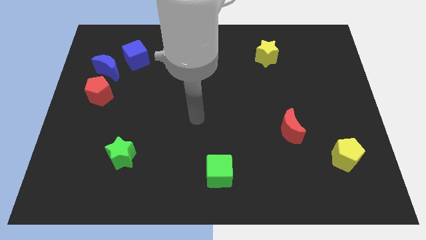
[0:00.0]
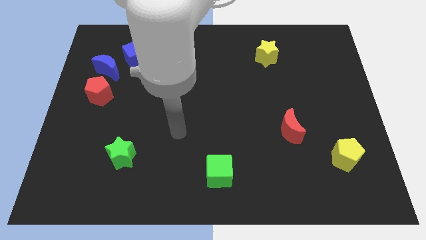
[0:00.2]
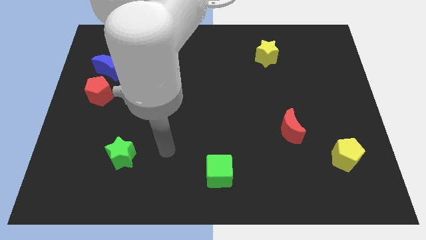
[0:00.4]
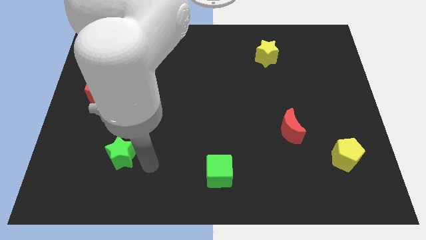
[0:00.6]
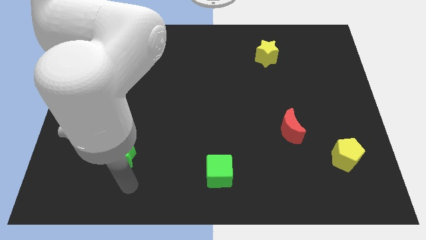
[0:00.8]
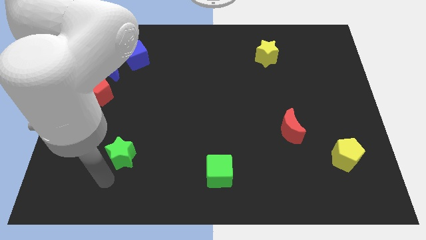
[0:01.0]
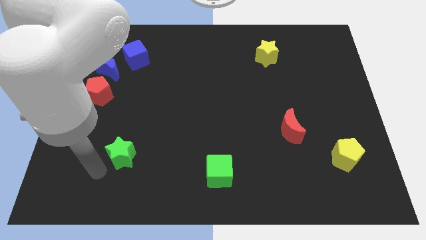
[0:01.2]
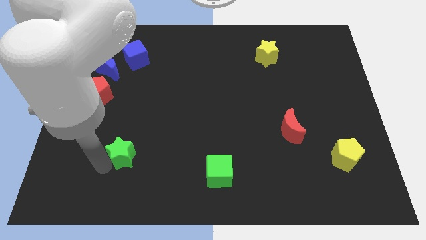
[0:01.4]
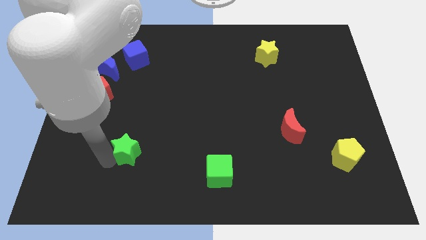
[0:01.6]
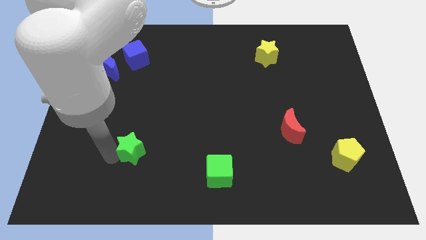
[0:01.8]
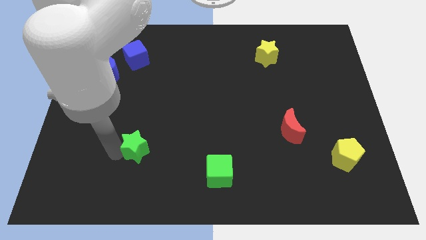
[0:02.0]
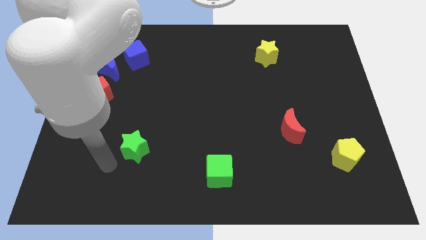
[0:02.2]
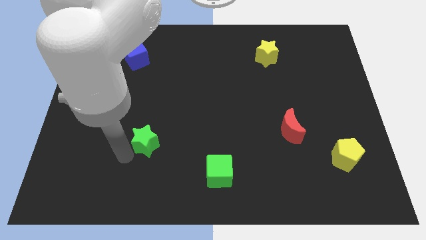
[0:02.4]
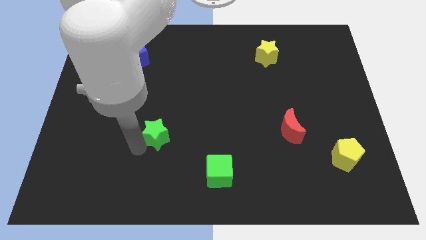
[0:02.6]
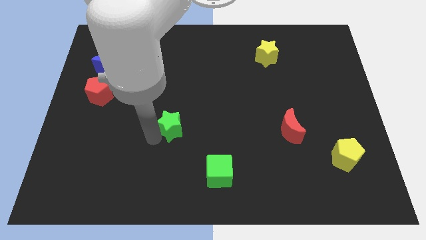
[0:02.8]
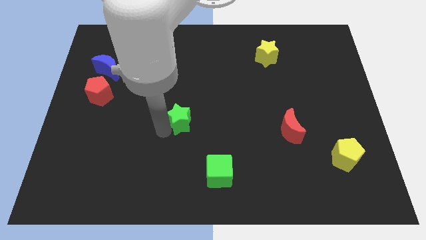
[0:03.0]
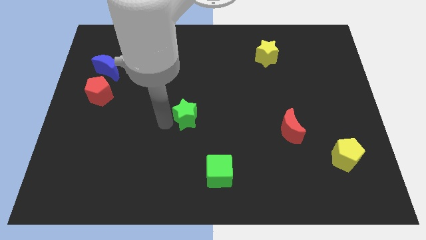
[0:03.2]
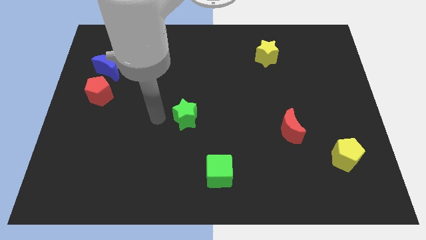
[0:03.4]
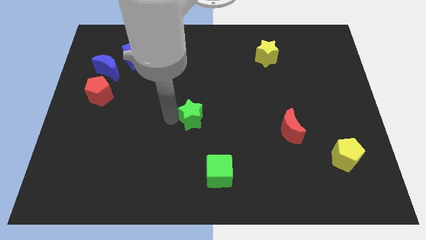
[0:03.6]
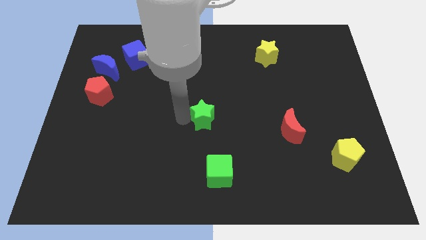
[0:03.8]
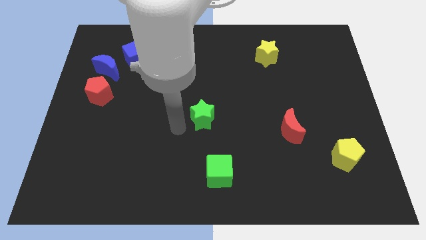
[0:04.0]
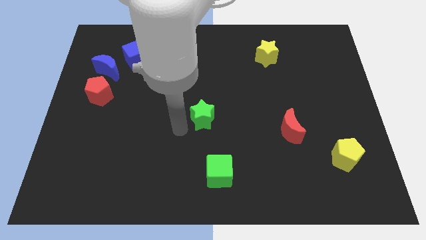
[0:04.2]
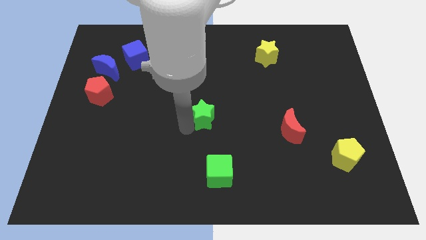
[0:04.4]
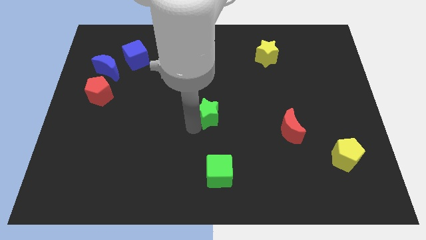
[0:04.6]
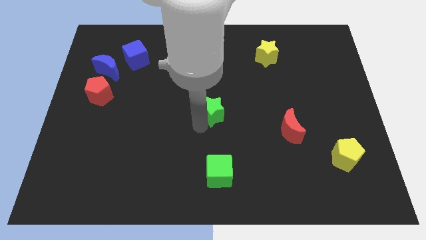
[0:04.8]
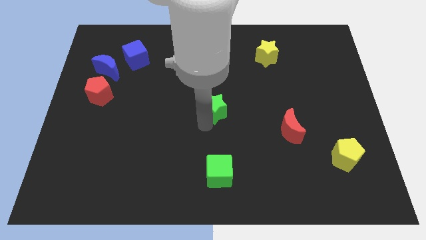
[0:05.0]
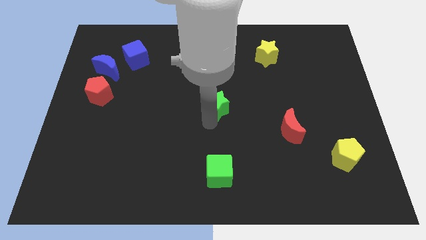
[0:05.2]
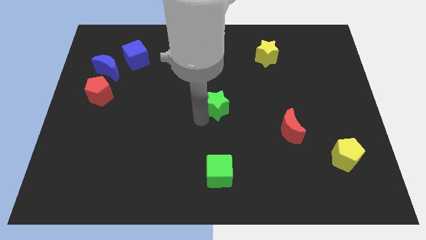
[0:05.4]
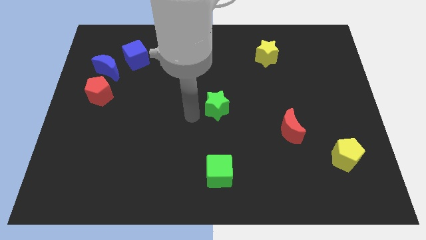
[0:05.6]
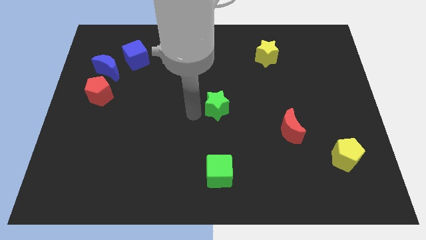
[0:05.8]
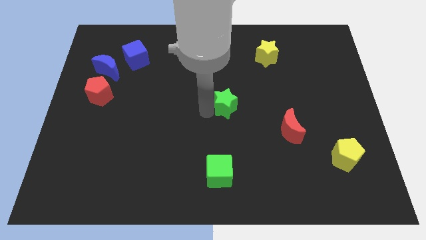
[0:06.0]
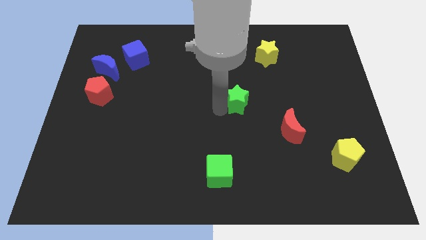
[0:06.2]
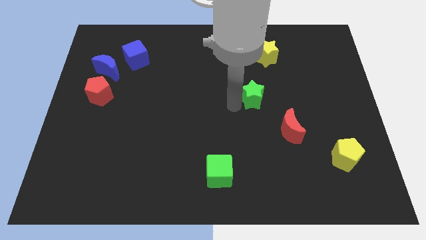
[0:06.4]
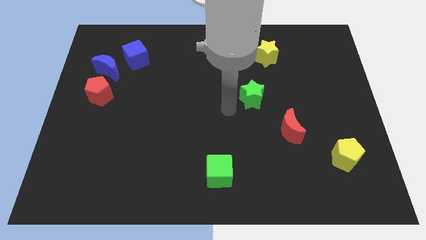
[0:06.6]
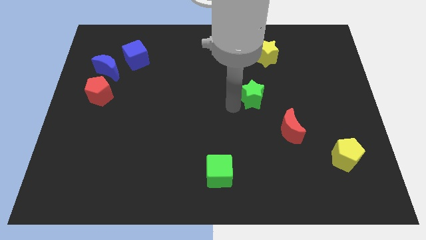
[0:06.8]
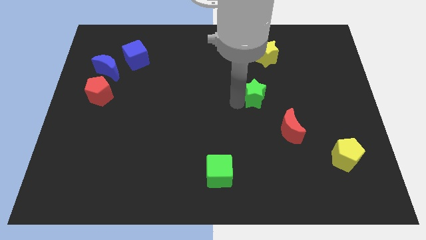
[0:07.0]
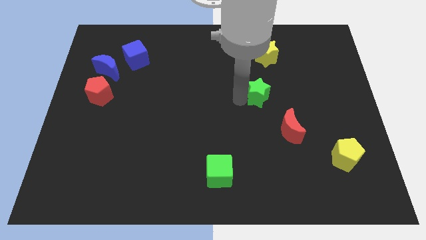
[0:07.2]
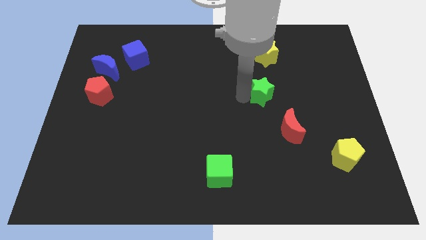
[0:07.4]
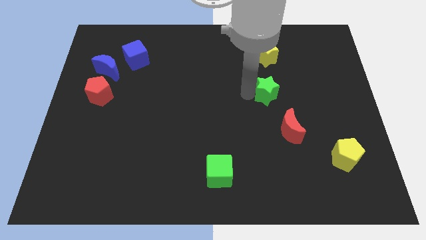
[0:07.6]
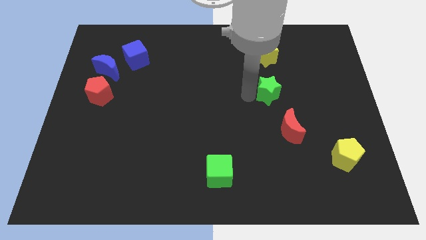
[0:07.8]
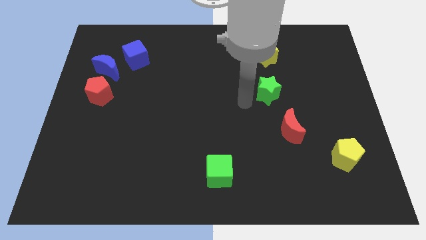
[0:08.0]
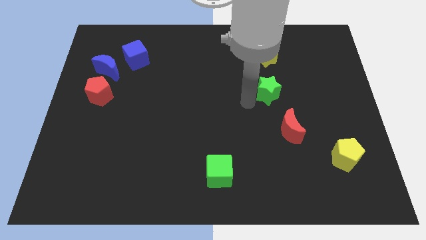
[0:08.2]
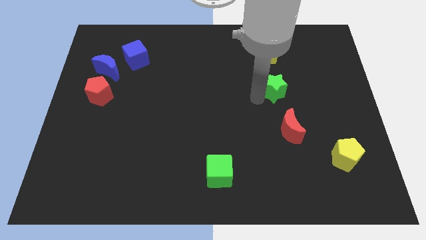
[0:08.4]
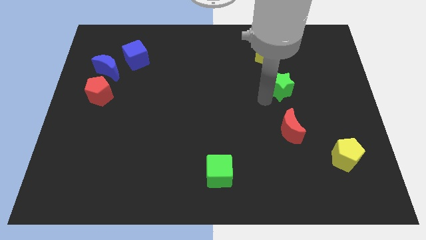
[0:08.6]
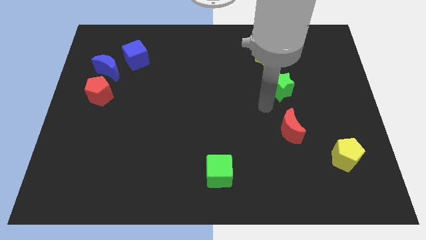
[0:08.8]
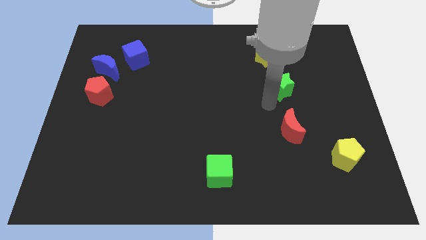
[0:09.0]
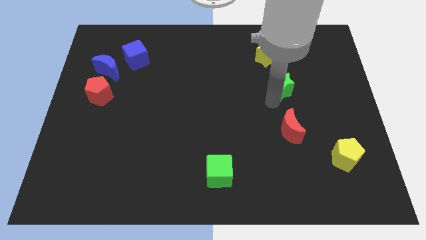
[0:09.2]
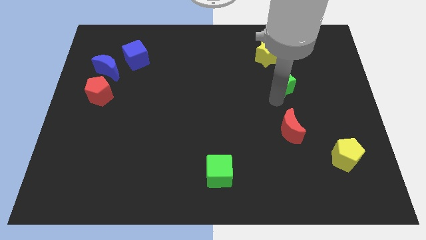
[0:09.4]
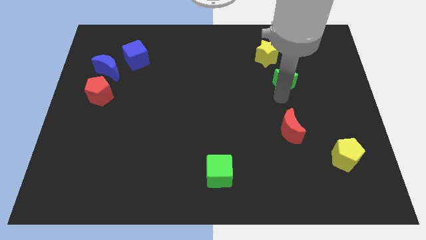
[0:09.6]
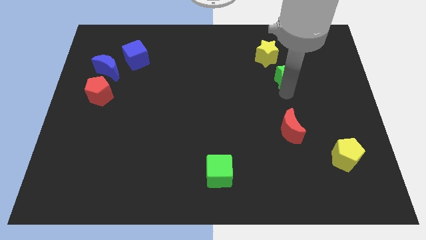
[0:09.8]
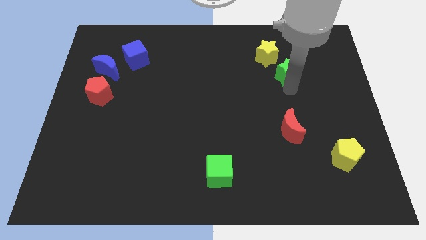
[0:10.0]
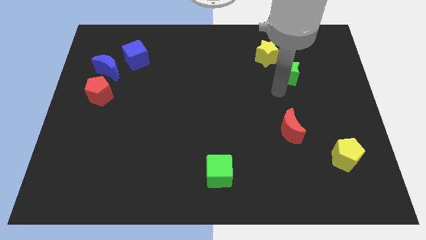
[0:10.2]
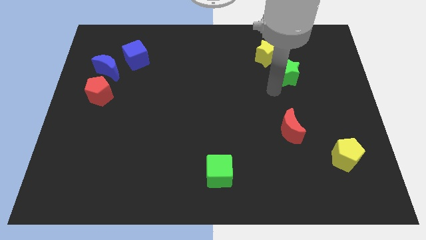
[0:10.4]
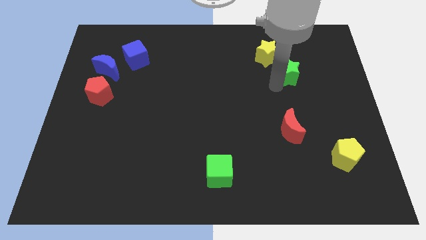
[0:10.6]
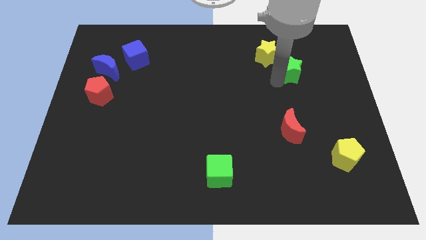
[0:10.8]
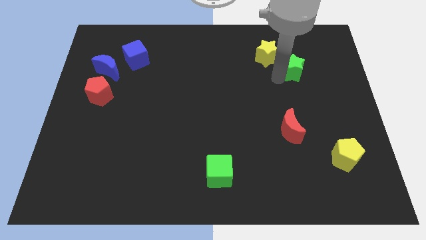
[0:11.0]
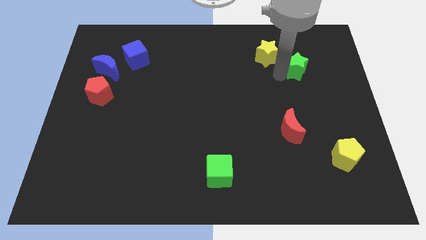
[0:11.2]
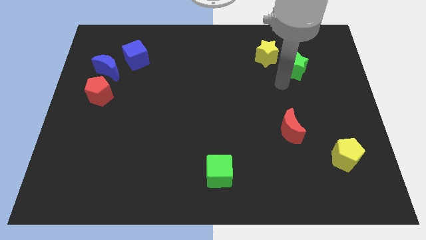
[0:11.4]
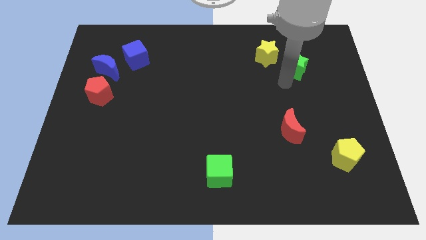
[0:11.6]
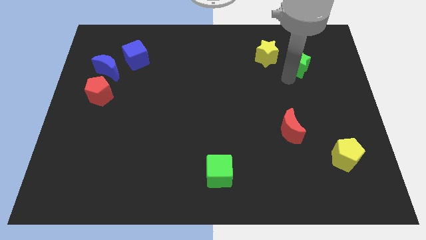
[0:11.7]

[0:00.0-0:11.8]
move the green star right of the yellow star

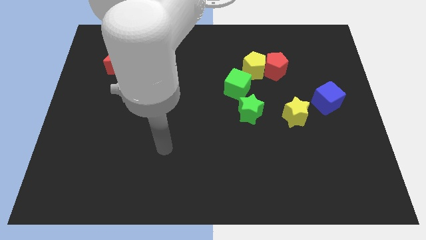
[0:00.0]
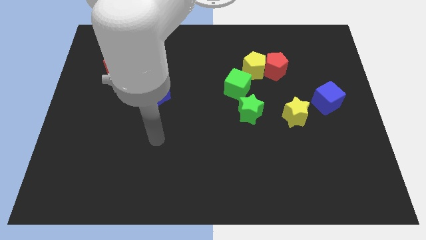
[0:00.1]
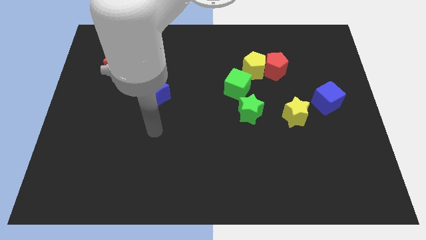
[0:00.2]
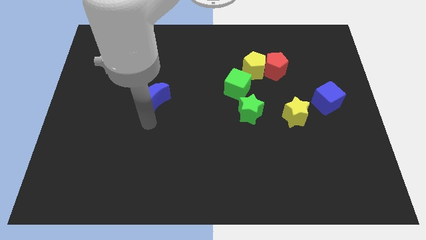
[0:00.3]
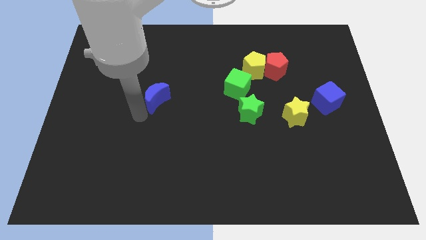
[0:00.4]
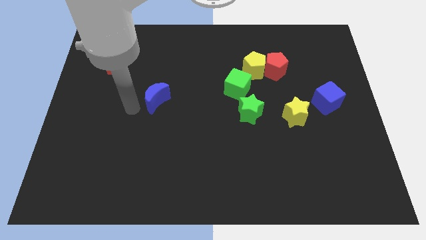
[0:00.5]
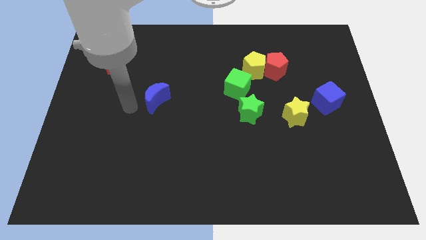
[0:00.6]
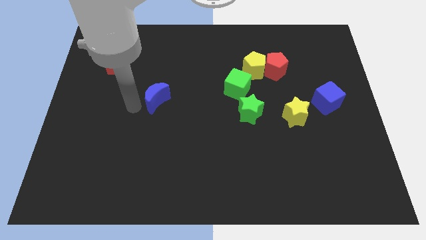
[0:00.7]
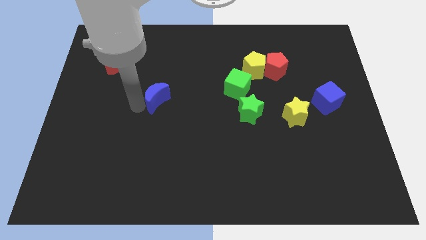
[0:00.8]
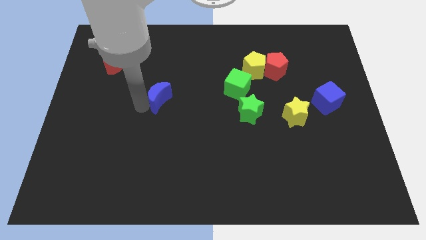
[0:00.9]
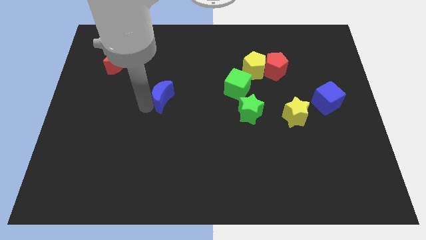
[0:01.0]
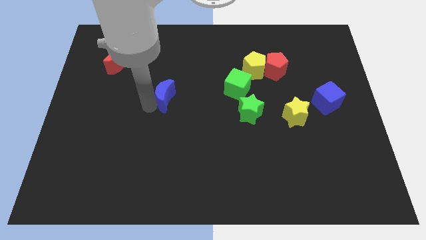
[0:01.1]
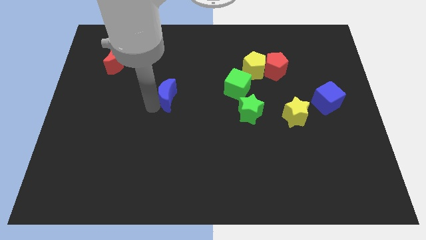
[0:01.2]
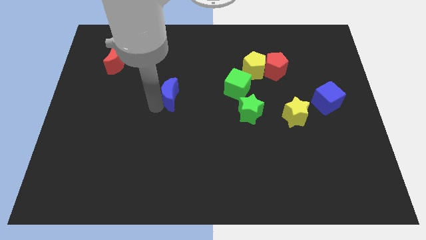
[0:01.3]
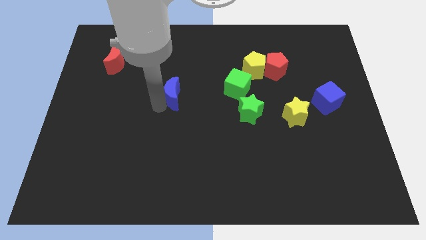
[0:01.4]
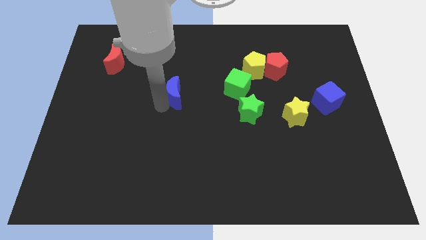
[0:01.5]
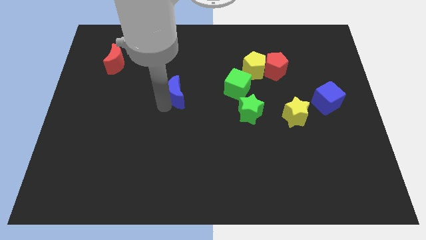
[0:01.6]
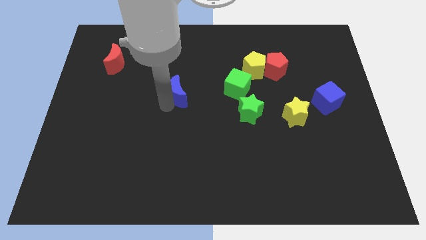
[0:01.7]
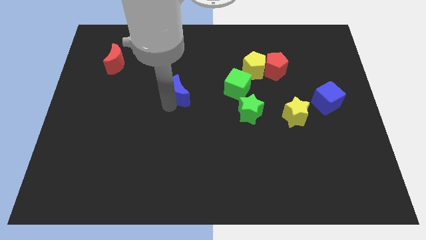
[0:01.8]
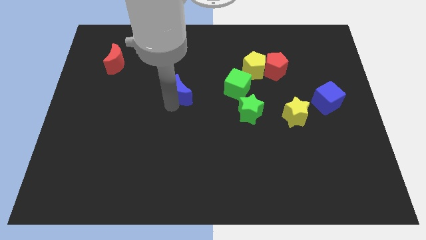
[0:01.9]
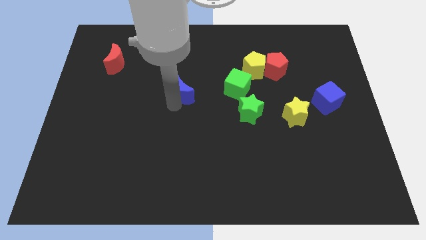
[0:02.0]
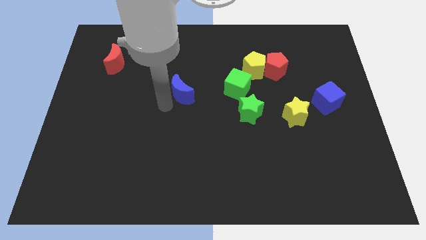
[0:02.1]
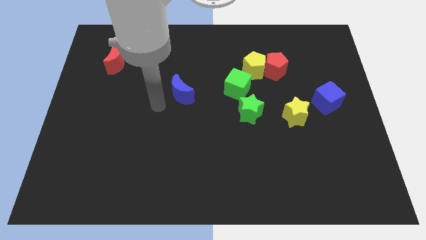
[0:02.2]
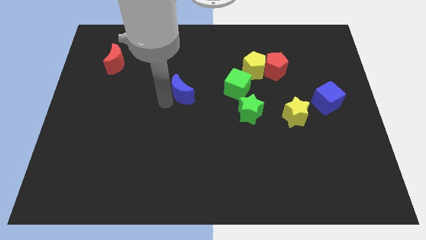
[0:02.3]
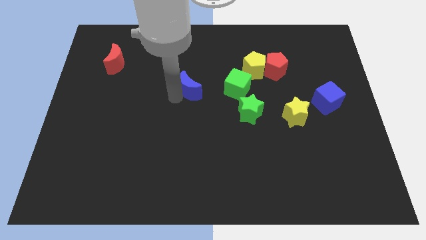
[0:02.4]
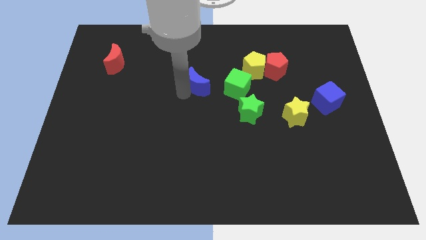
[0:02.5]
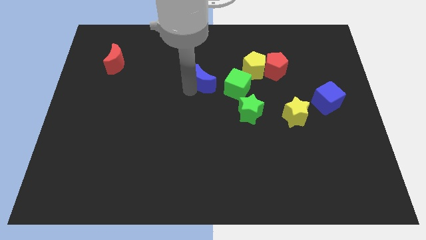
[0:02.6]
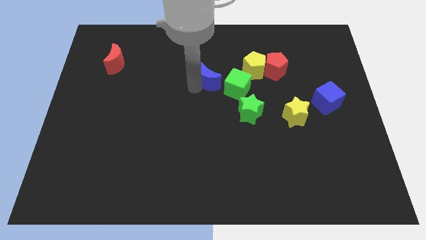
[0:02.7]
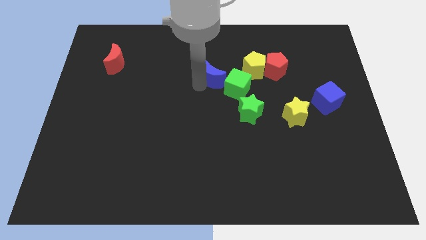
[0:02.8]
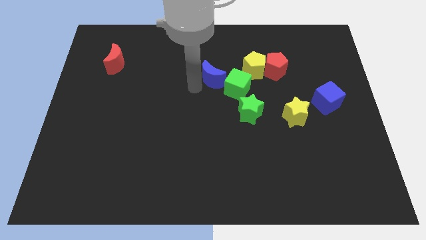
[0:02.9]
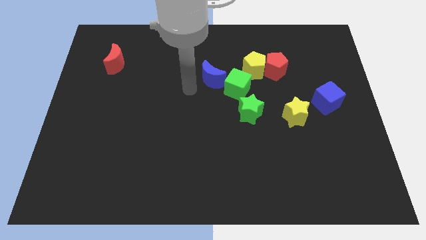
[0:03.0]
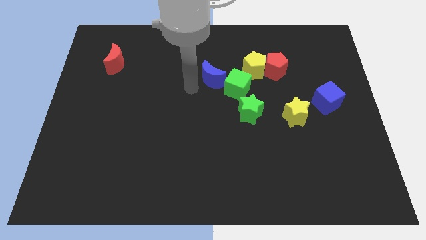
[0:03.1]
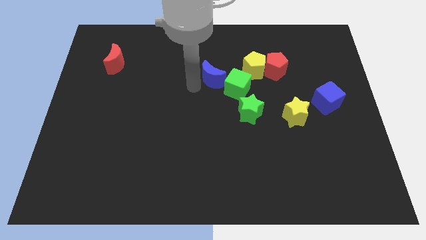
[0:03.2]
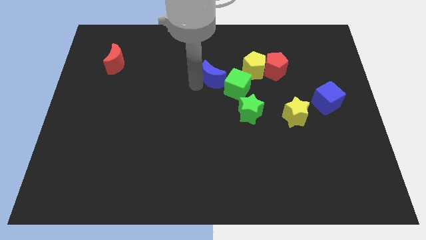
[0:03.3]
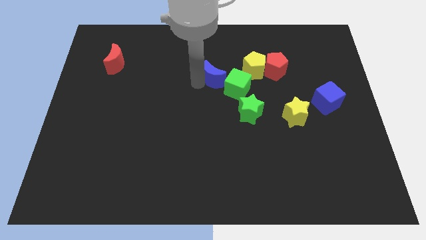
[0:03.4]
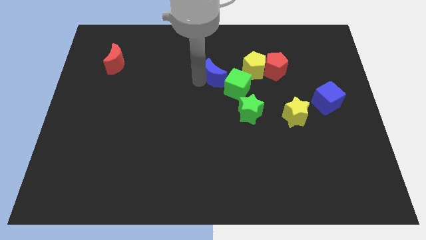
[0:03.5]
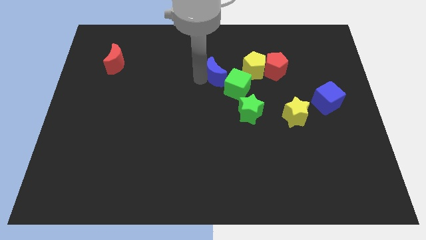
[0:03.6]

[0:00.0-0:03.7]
push the blue moon left of the red pentagon
